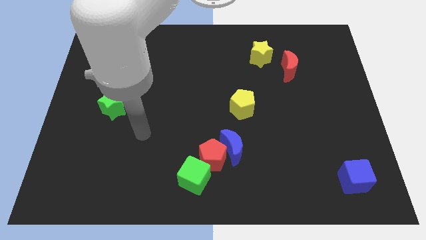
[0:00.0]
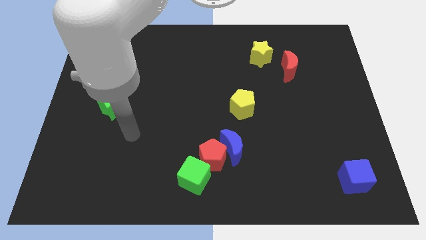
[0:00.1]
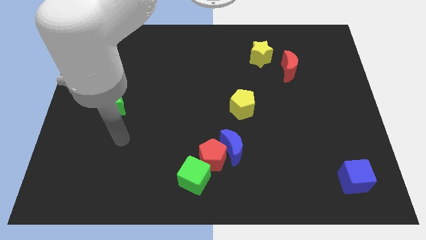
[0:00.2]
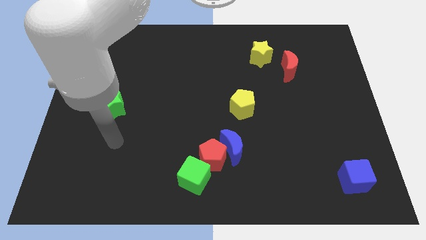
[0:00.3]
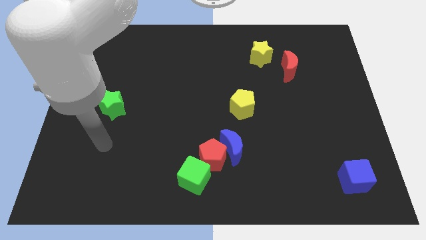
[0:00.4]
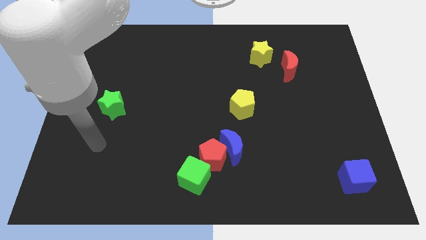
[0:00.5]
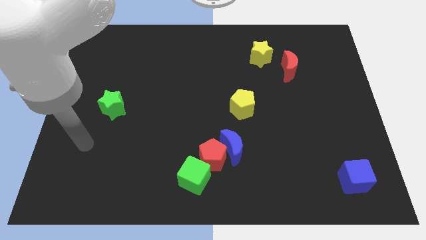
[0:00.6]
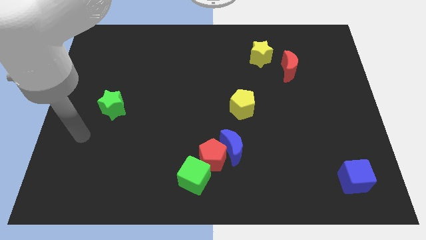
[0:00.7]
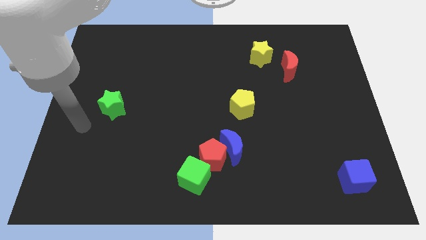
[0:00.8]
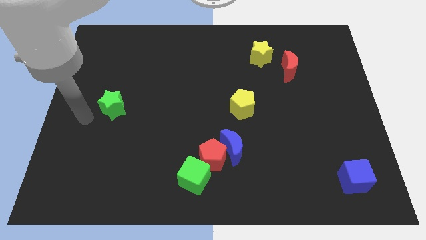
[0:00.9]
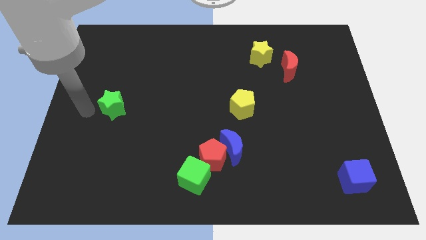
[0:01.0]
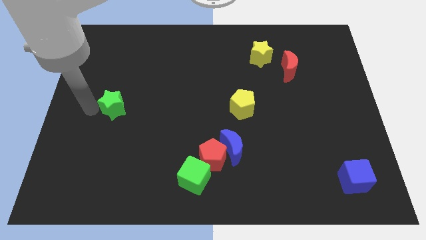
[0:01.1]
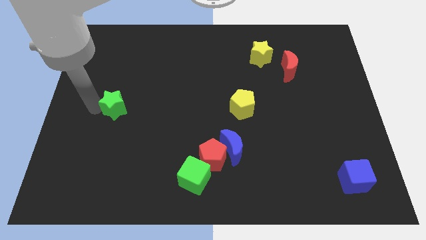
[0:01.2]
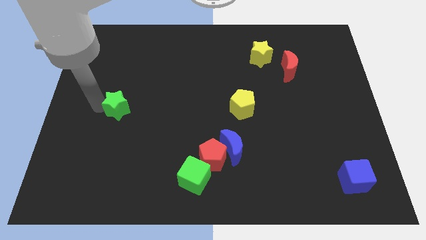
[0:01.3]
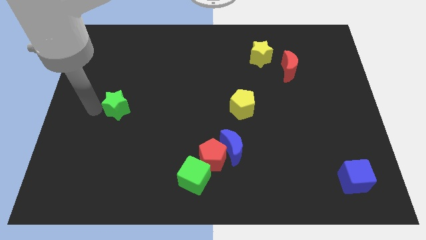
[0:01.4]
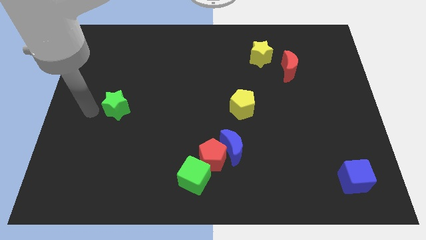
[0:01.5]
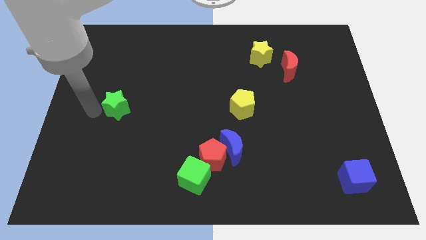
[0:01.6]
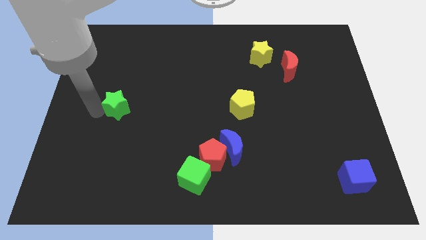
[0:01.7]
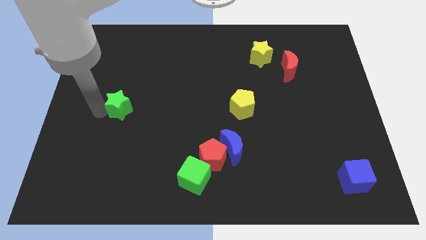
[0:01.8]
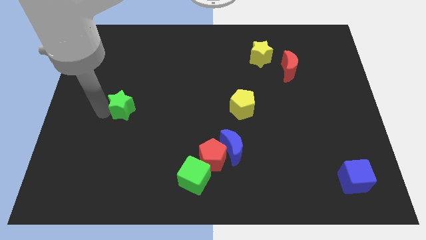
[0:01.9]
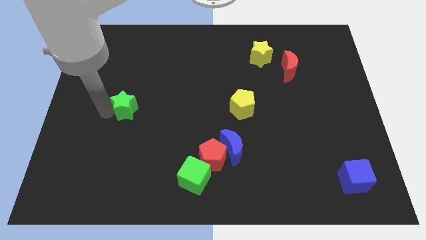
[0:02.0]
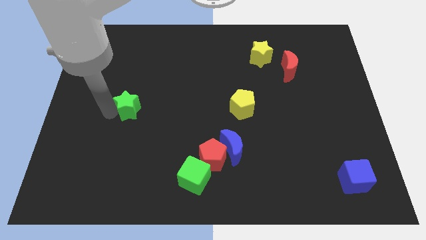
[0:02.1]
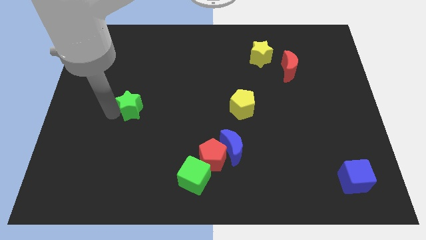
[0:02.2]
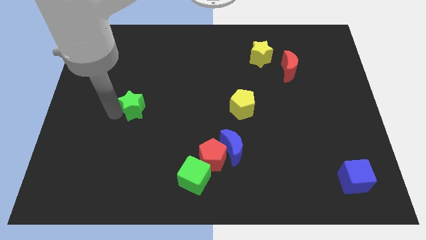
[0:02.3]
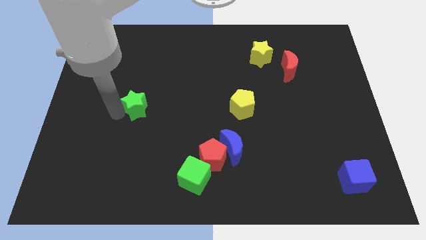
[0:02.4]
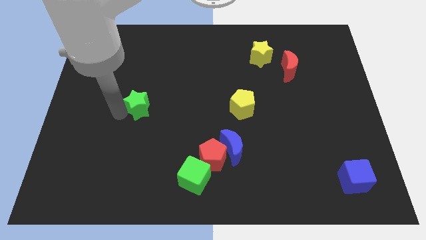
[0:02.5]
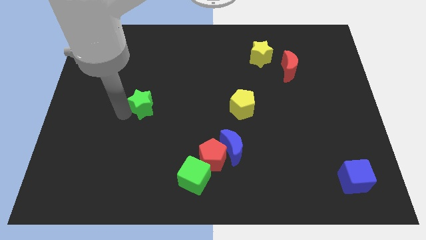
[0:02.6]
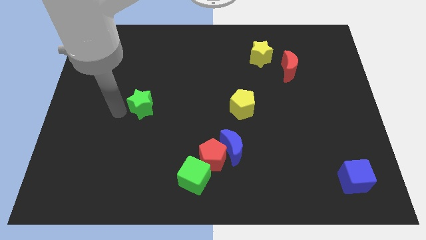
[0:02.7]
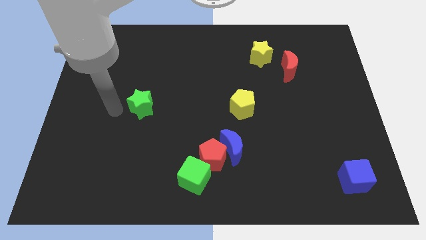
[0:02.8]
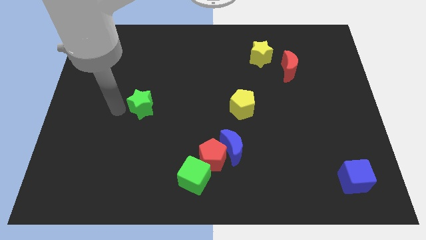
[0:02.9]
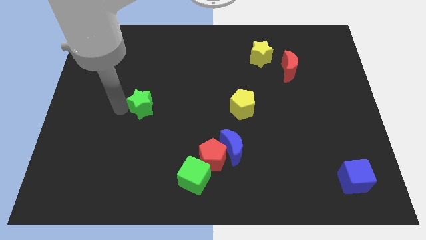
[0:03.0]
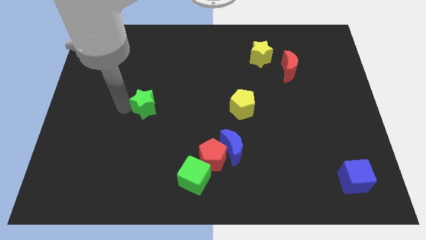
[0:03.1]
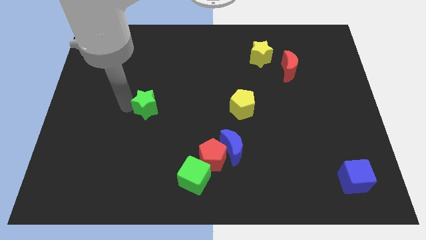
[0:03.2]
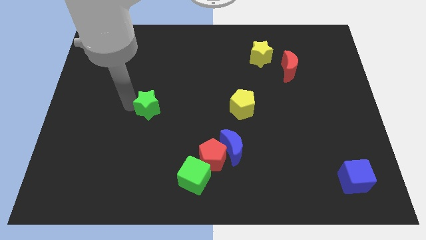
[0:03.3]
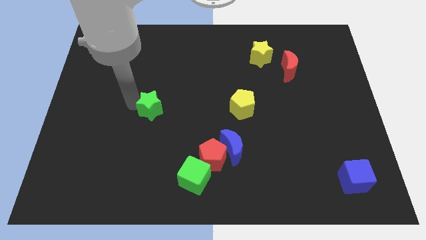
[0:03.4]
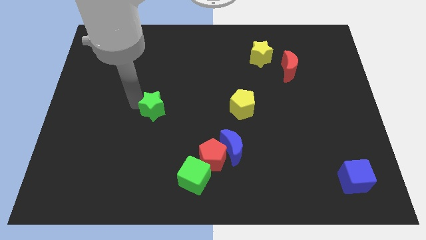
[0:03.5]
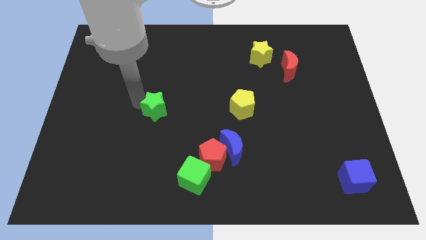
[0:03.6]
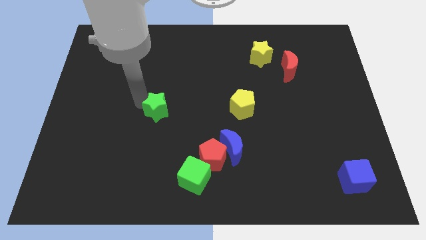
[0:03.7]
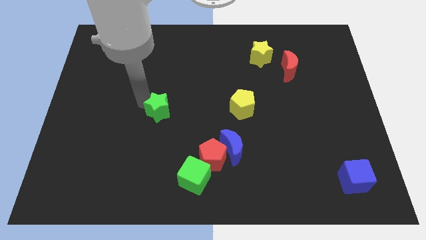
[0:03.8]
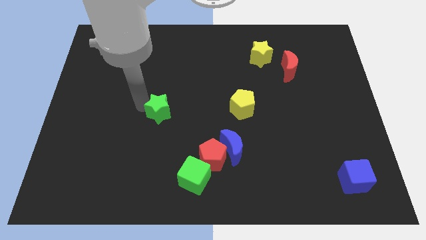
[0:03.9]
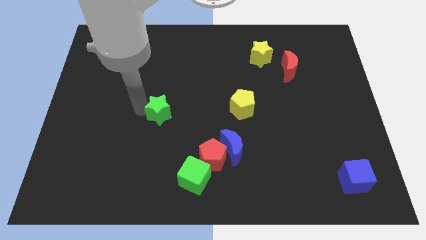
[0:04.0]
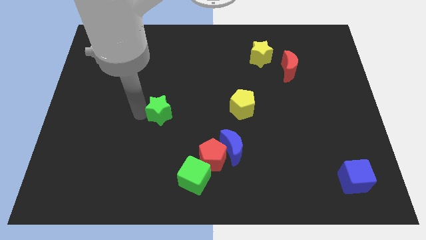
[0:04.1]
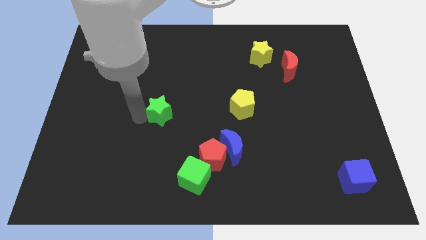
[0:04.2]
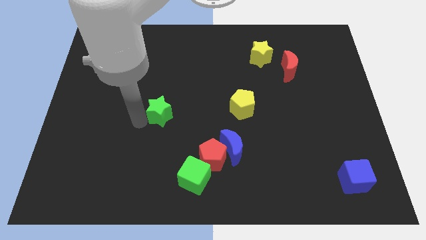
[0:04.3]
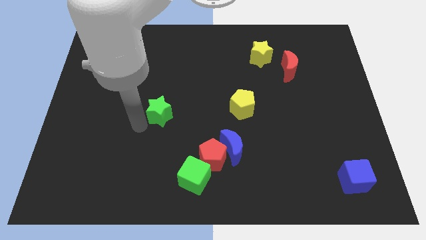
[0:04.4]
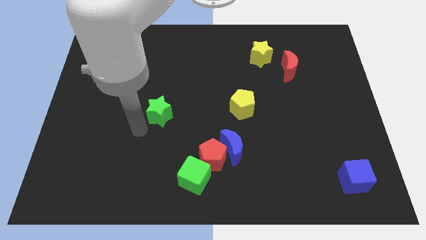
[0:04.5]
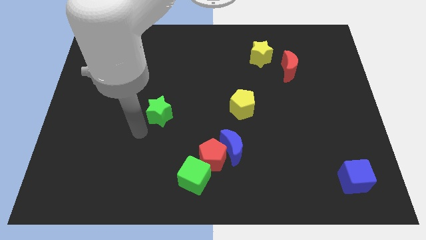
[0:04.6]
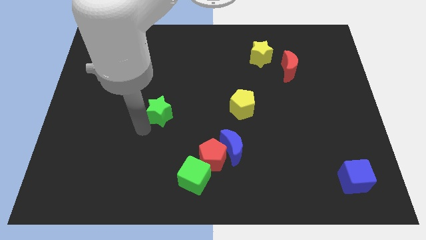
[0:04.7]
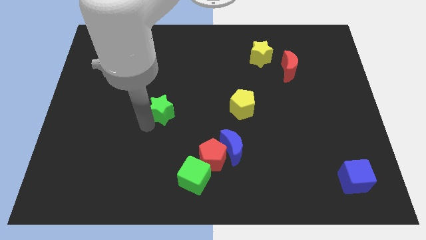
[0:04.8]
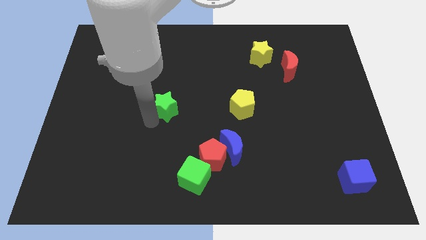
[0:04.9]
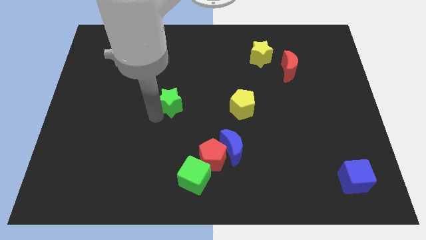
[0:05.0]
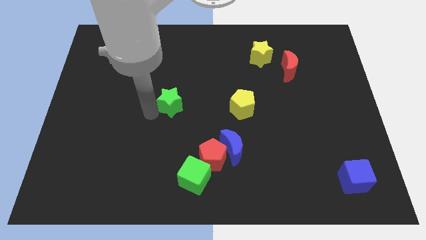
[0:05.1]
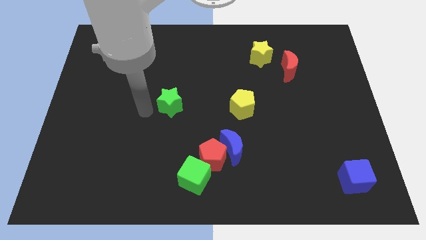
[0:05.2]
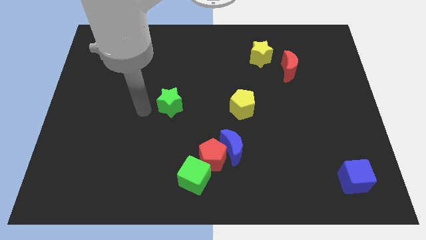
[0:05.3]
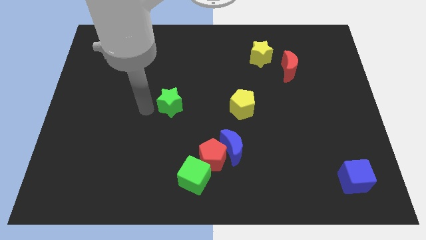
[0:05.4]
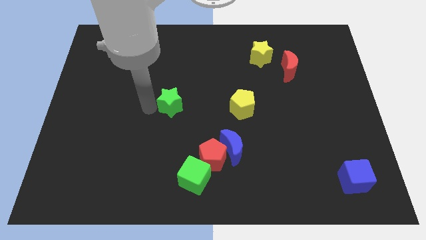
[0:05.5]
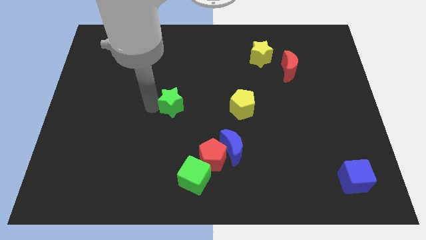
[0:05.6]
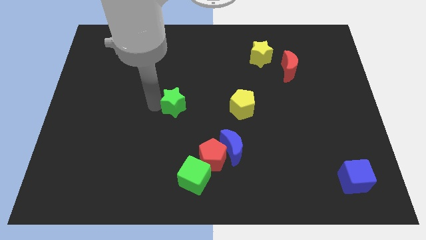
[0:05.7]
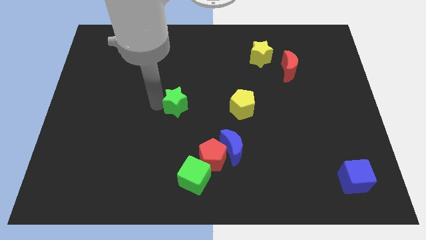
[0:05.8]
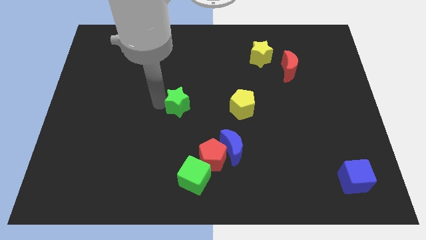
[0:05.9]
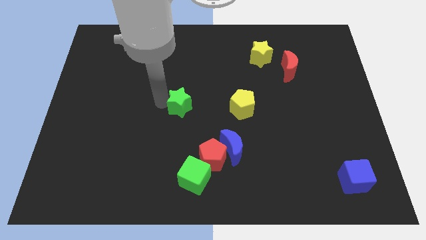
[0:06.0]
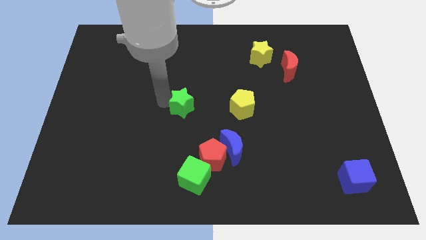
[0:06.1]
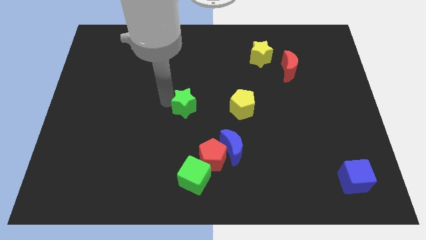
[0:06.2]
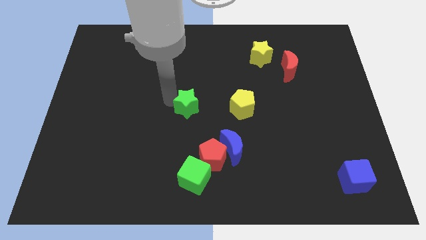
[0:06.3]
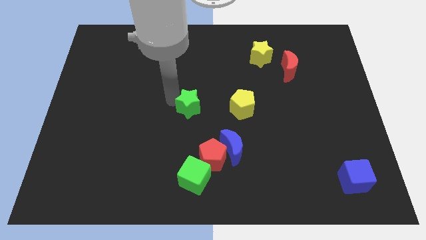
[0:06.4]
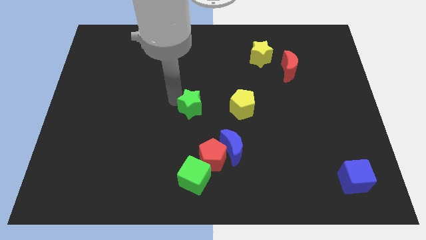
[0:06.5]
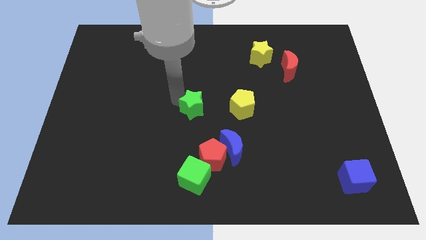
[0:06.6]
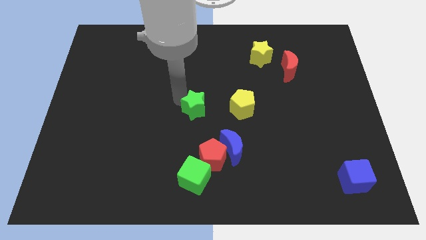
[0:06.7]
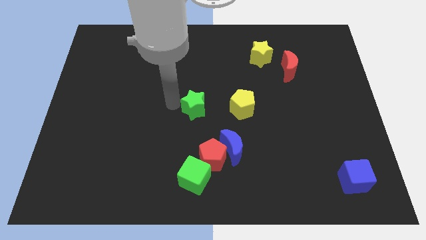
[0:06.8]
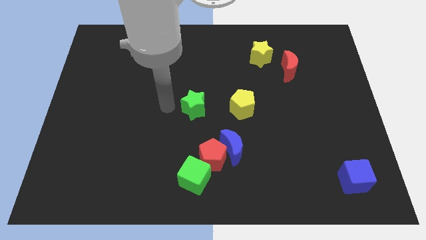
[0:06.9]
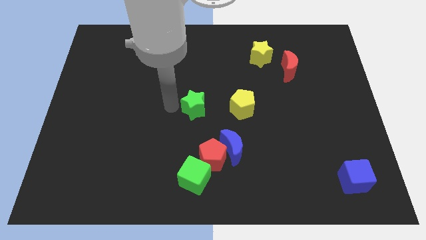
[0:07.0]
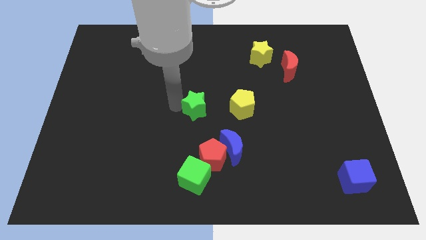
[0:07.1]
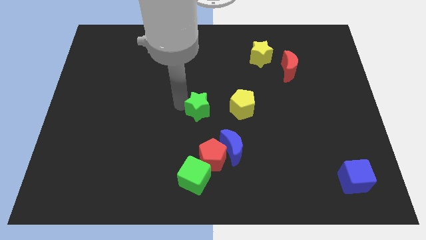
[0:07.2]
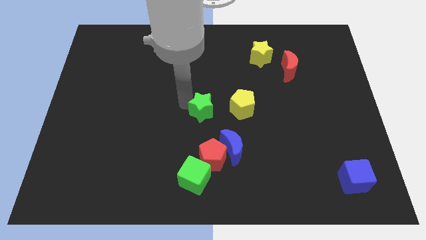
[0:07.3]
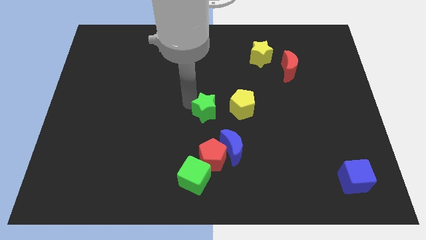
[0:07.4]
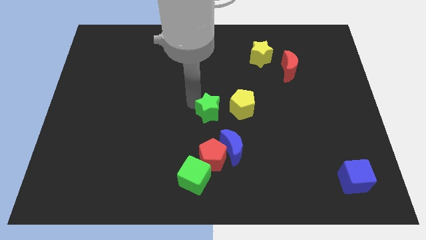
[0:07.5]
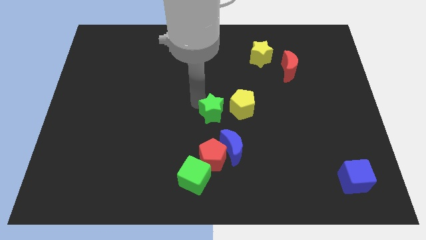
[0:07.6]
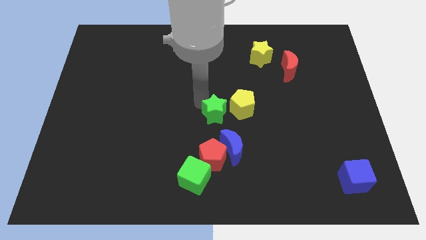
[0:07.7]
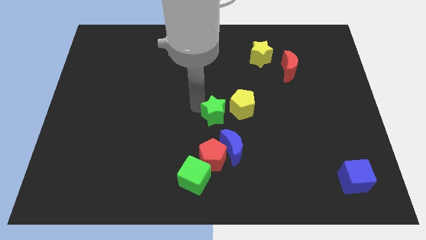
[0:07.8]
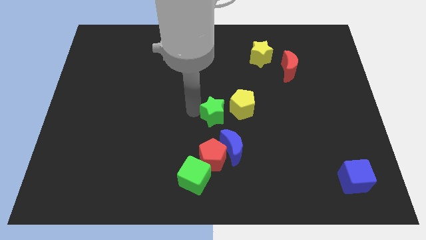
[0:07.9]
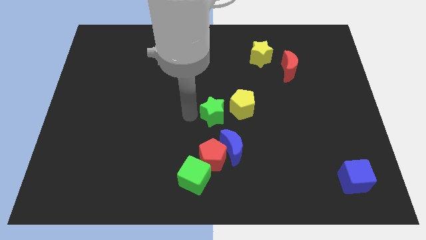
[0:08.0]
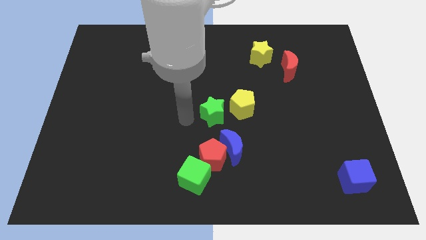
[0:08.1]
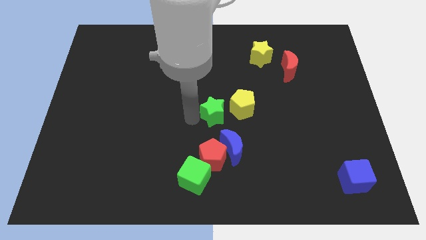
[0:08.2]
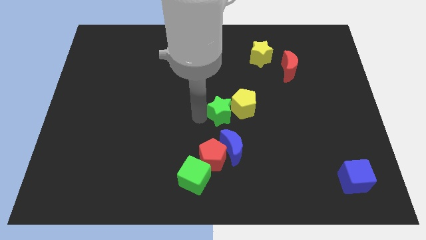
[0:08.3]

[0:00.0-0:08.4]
move the green star towards the yellow pentagon
